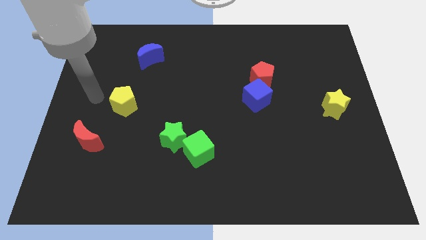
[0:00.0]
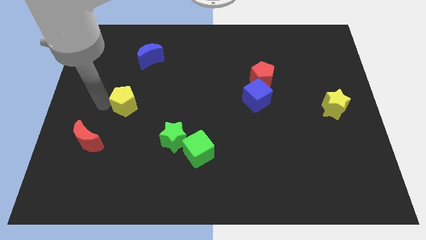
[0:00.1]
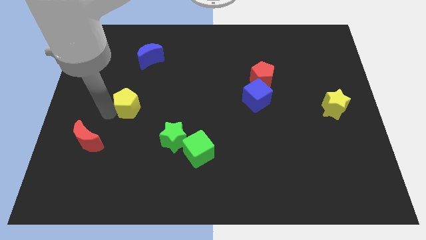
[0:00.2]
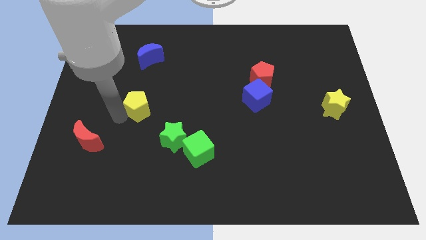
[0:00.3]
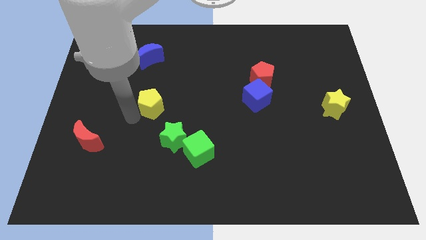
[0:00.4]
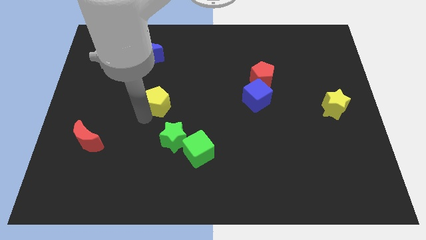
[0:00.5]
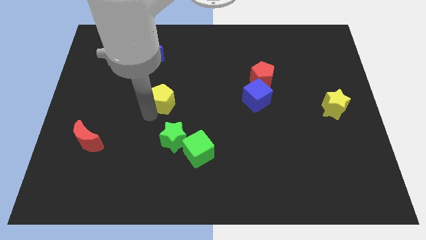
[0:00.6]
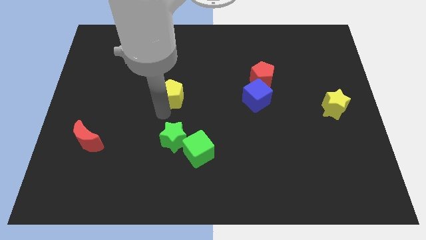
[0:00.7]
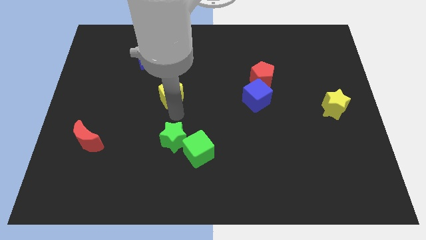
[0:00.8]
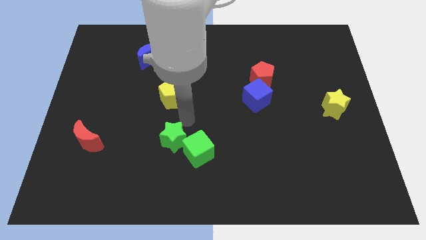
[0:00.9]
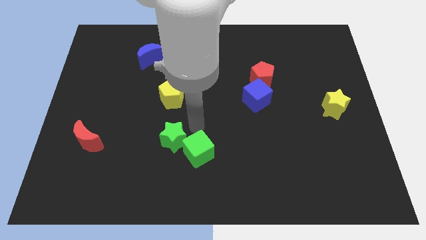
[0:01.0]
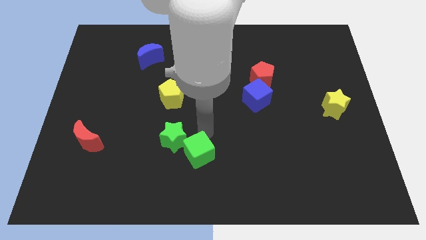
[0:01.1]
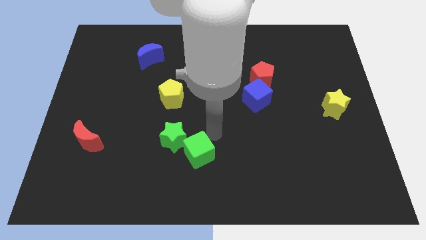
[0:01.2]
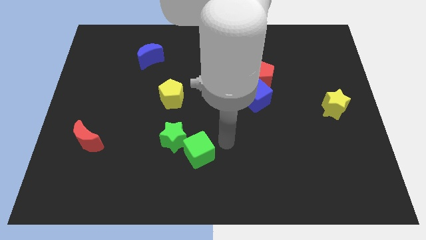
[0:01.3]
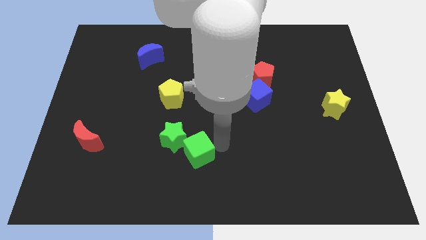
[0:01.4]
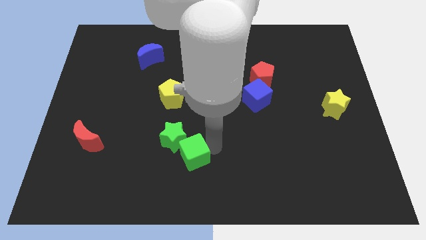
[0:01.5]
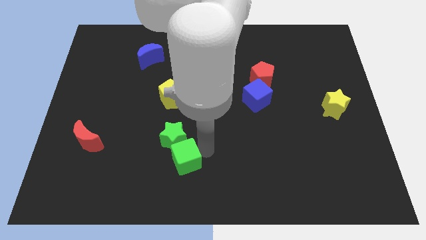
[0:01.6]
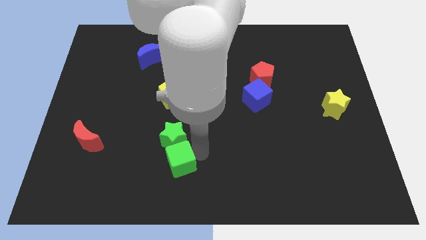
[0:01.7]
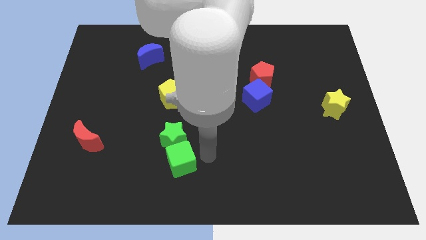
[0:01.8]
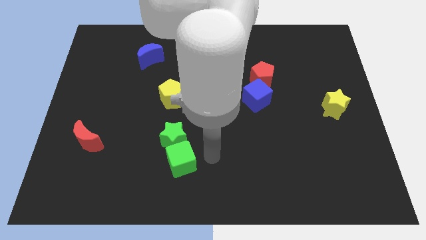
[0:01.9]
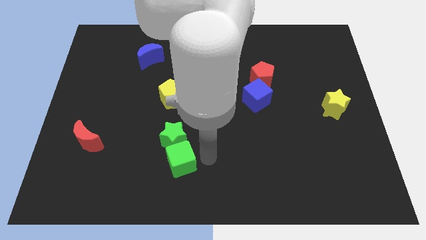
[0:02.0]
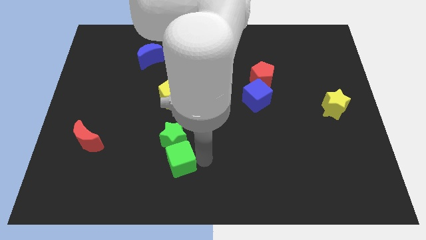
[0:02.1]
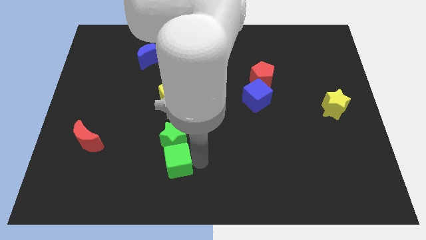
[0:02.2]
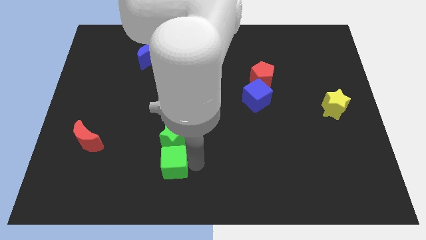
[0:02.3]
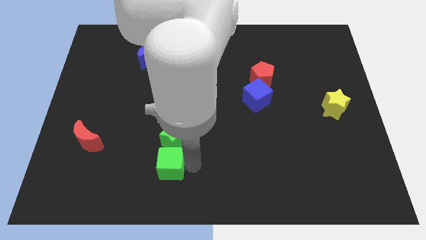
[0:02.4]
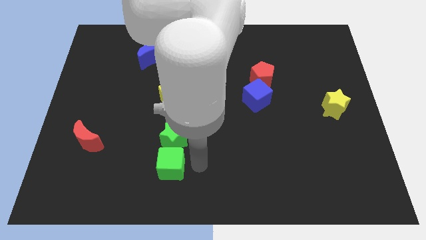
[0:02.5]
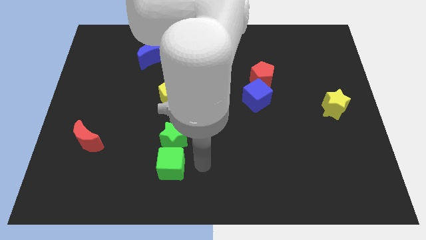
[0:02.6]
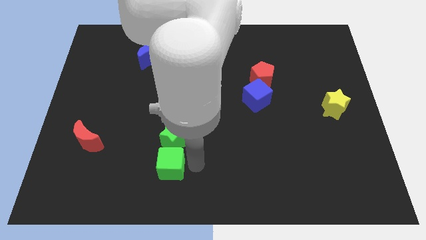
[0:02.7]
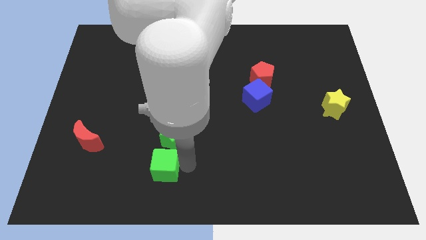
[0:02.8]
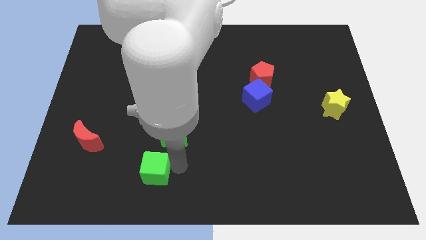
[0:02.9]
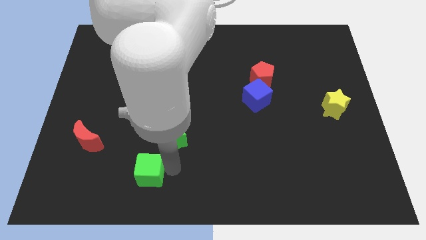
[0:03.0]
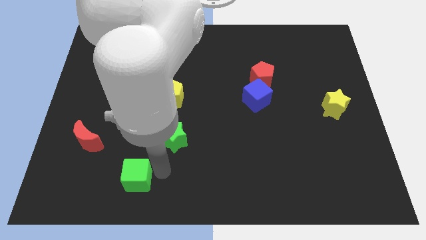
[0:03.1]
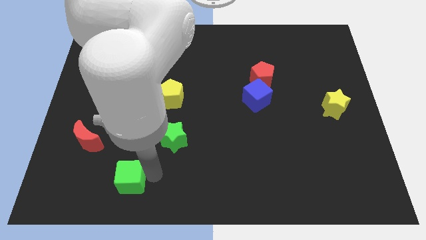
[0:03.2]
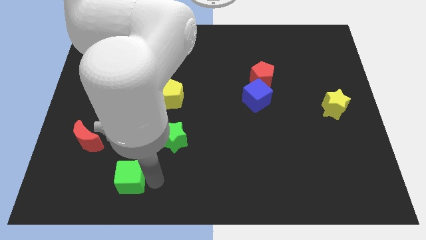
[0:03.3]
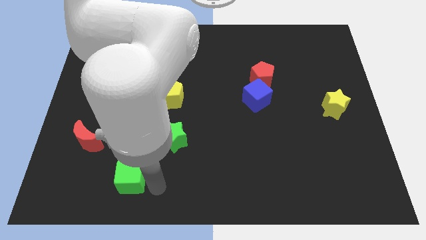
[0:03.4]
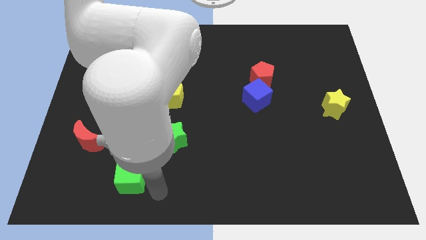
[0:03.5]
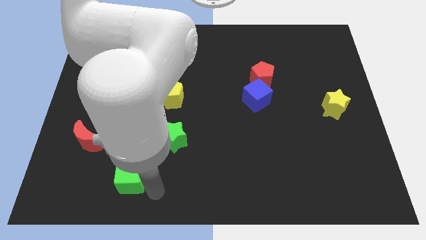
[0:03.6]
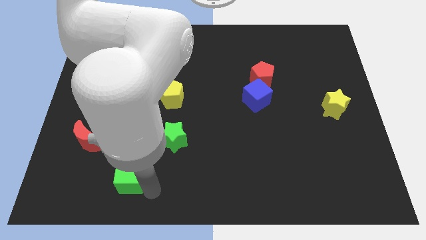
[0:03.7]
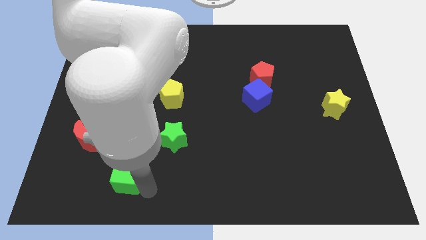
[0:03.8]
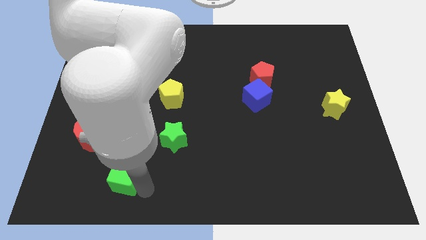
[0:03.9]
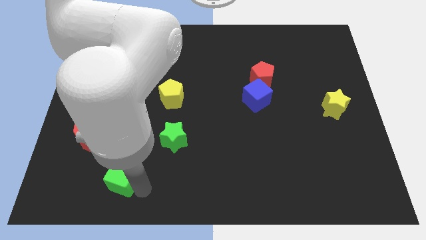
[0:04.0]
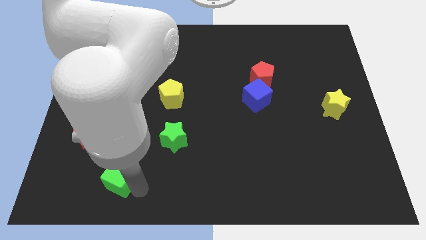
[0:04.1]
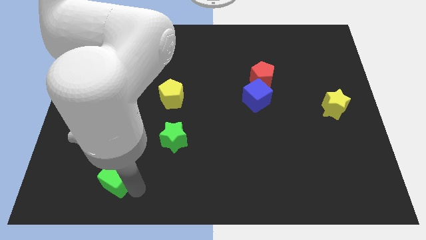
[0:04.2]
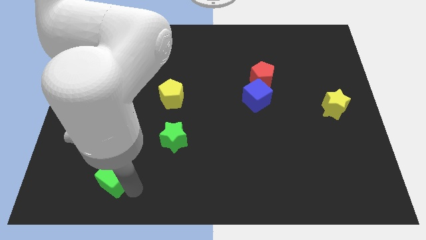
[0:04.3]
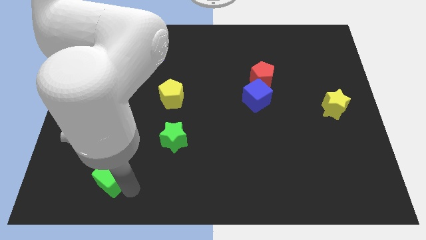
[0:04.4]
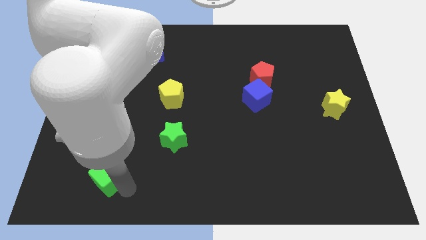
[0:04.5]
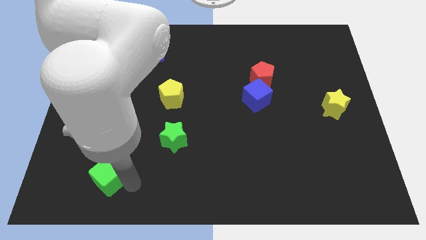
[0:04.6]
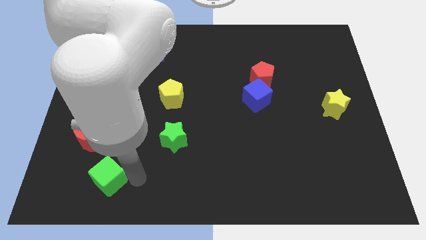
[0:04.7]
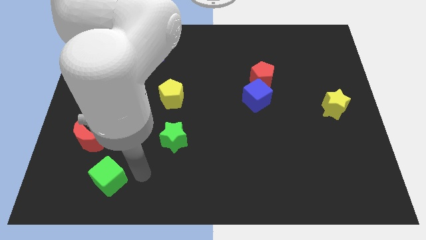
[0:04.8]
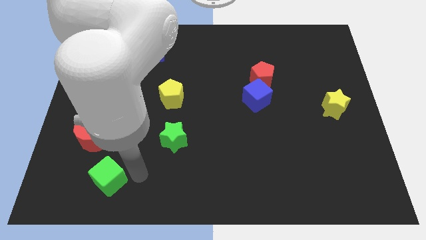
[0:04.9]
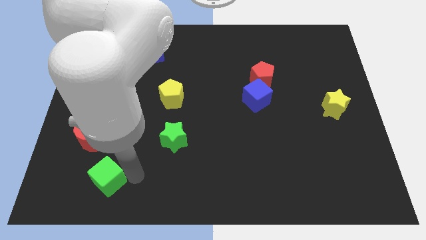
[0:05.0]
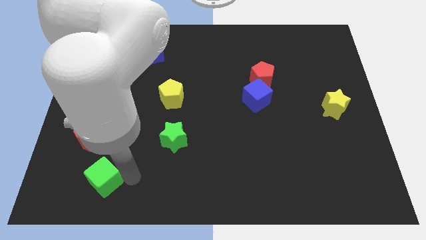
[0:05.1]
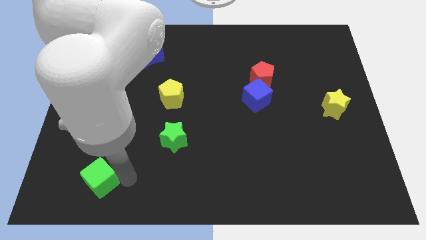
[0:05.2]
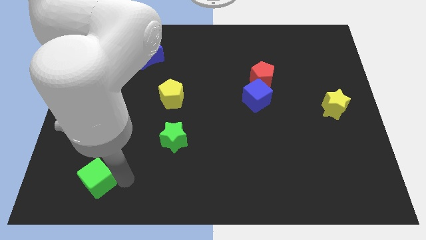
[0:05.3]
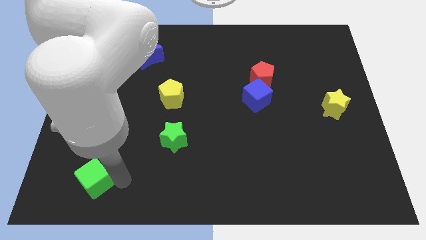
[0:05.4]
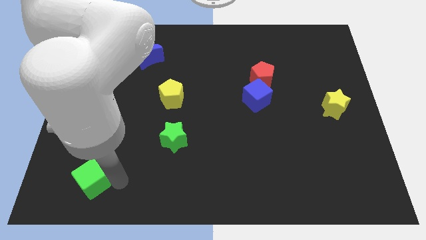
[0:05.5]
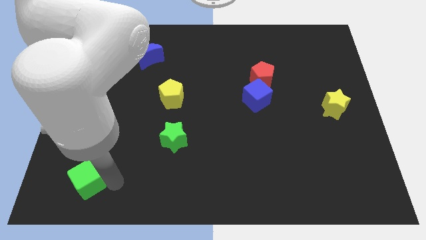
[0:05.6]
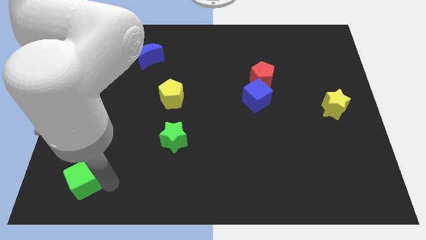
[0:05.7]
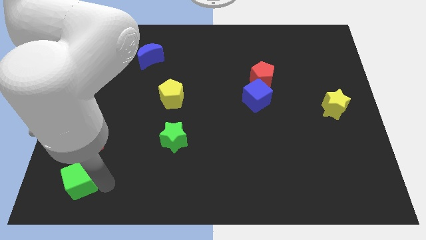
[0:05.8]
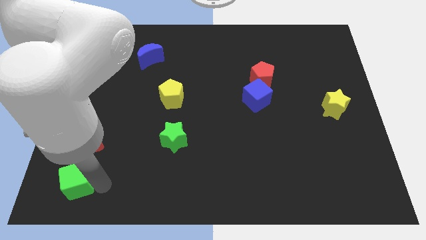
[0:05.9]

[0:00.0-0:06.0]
slide the green cube to the bottom left of the board
